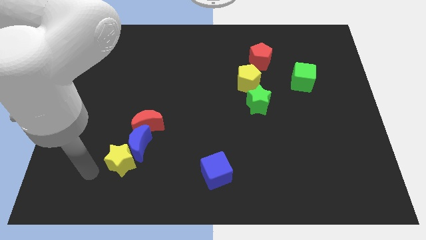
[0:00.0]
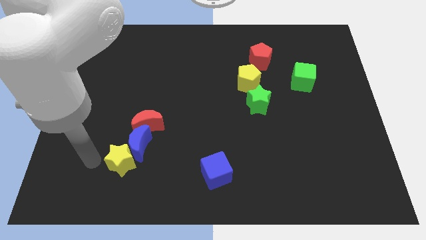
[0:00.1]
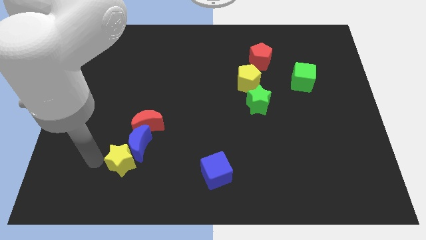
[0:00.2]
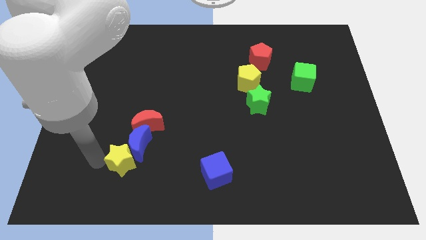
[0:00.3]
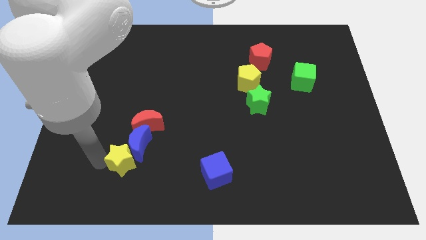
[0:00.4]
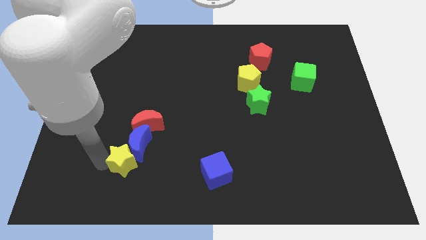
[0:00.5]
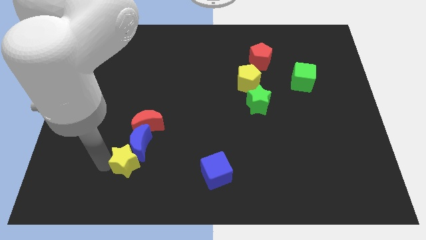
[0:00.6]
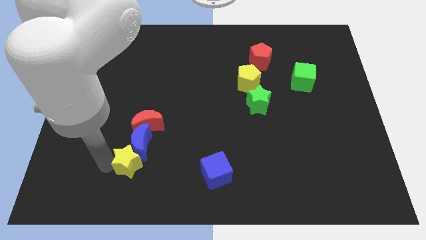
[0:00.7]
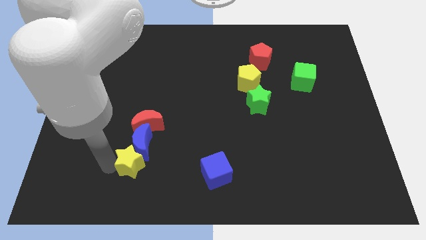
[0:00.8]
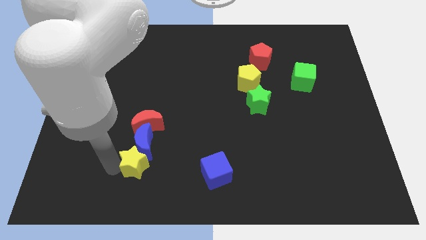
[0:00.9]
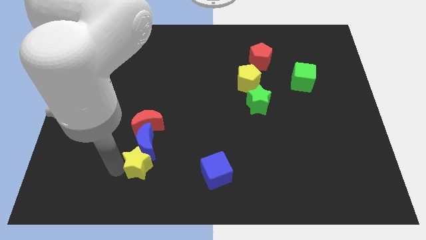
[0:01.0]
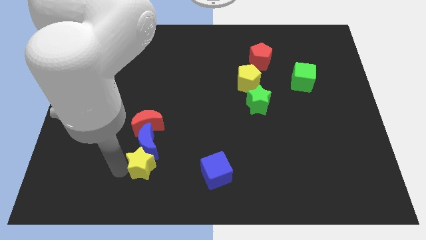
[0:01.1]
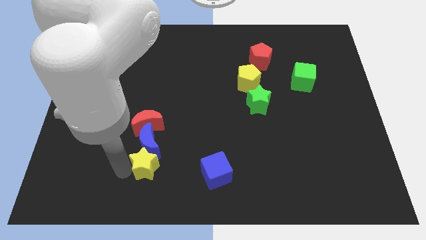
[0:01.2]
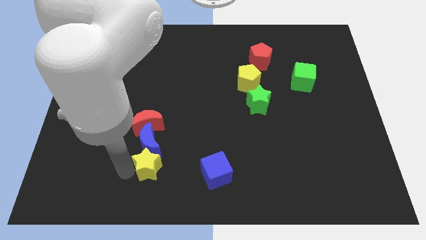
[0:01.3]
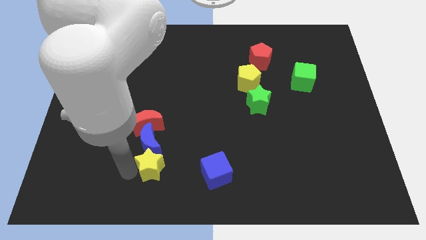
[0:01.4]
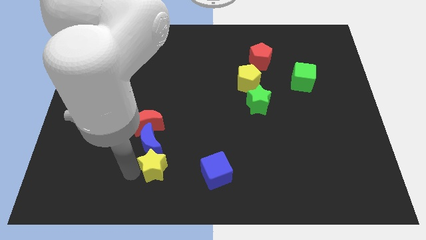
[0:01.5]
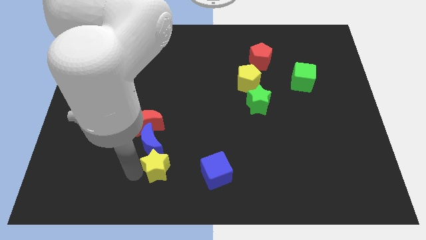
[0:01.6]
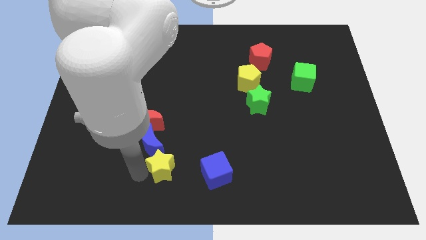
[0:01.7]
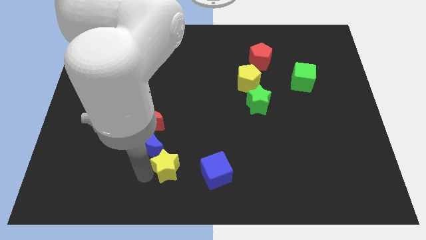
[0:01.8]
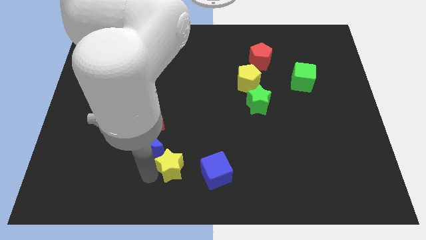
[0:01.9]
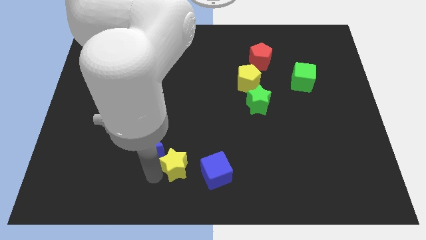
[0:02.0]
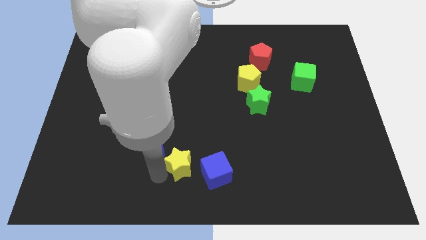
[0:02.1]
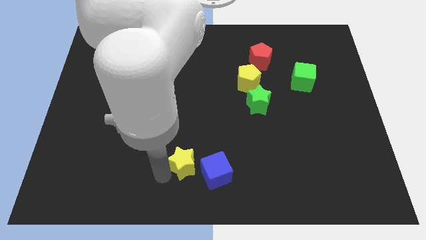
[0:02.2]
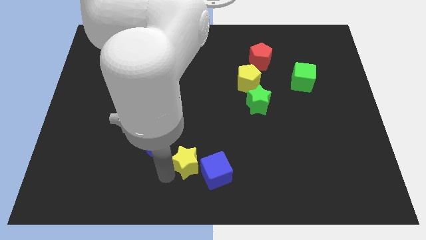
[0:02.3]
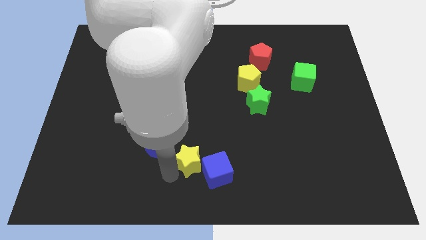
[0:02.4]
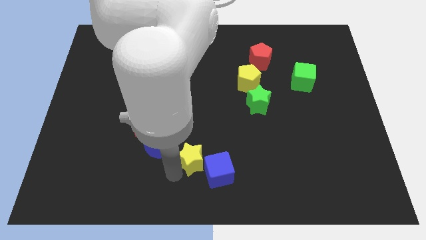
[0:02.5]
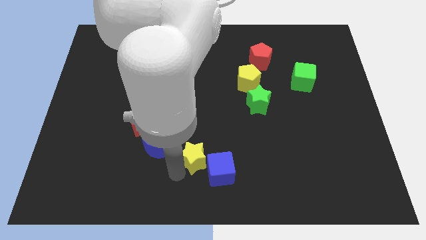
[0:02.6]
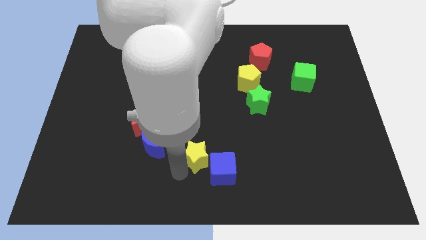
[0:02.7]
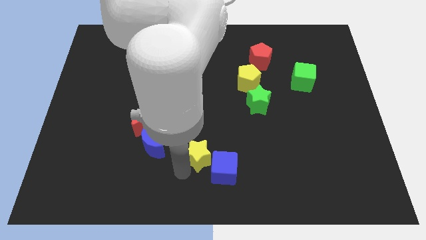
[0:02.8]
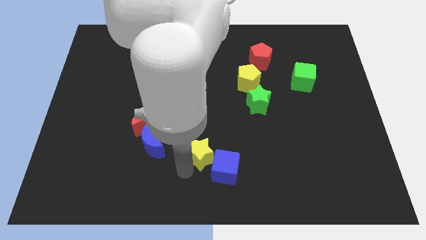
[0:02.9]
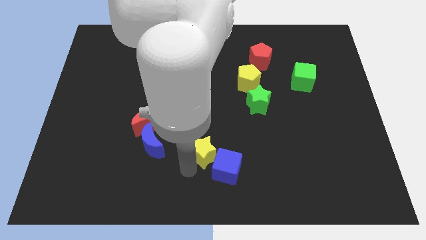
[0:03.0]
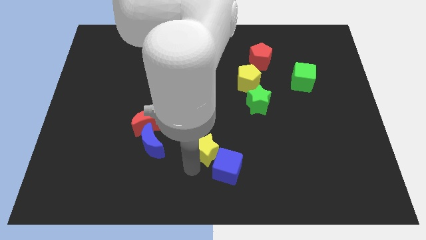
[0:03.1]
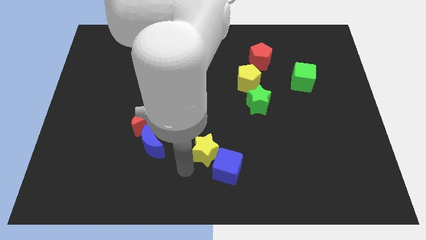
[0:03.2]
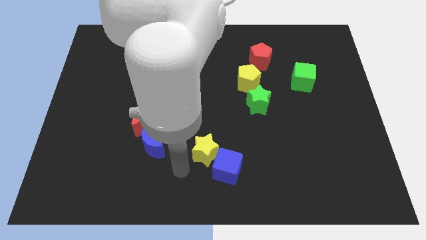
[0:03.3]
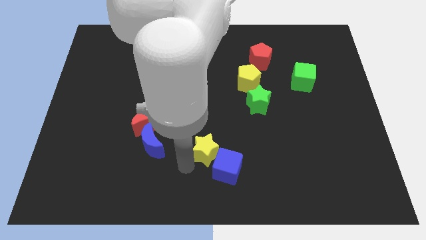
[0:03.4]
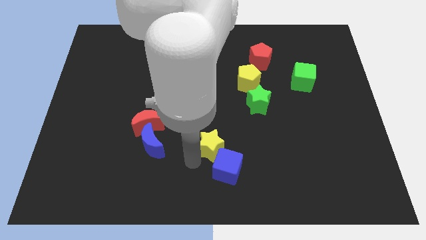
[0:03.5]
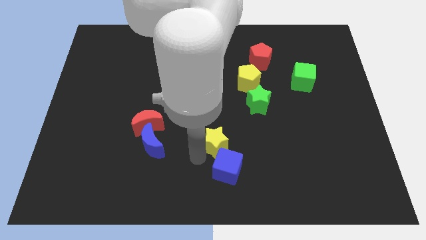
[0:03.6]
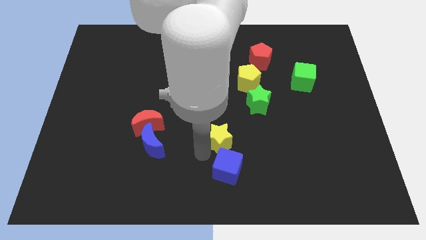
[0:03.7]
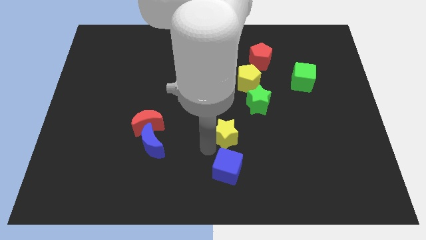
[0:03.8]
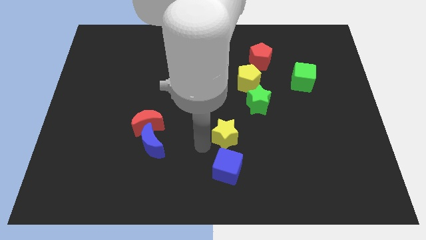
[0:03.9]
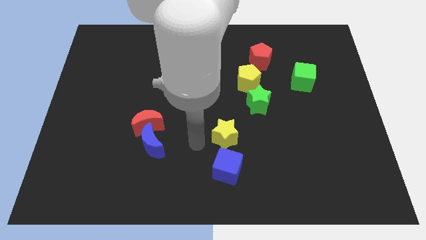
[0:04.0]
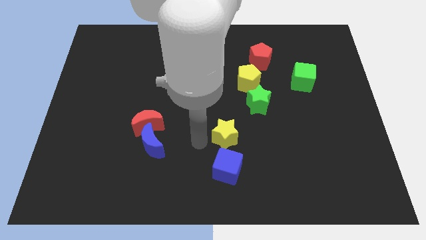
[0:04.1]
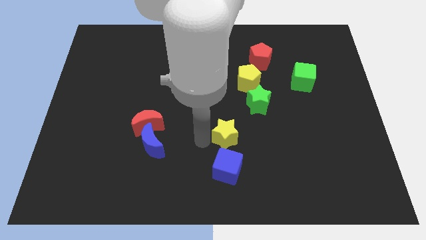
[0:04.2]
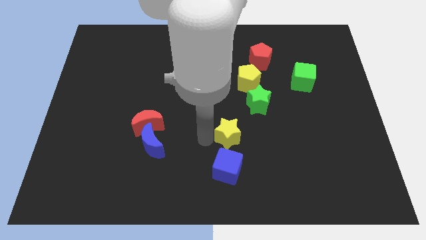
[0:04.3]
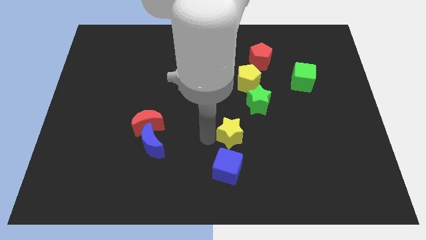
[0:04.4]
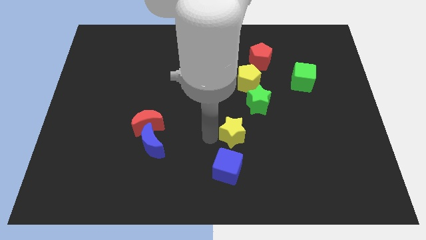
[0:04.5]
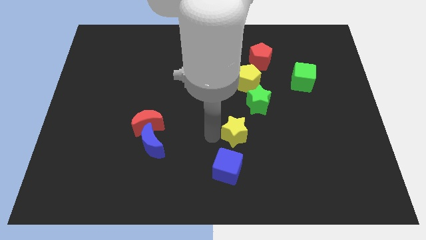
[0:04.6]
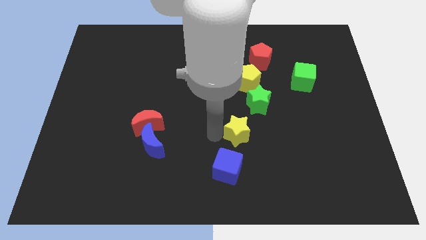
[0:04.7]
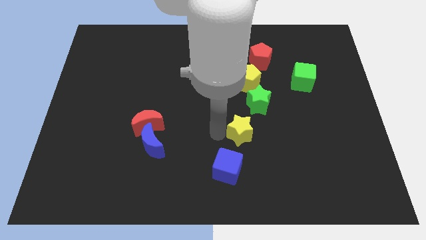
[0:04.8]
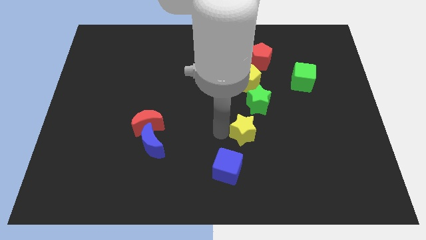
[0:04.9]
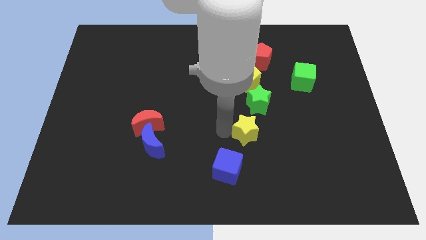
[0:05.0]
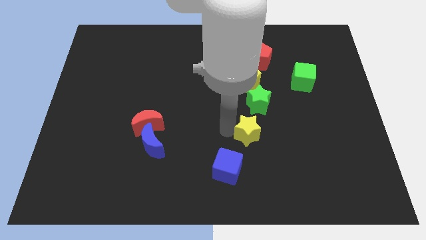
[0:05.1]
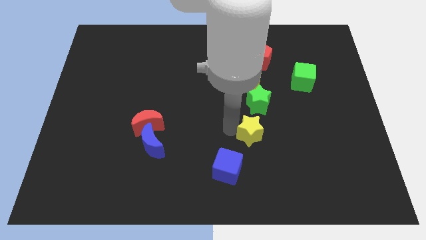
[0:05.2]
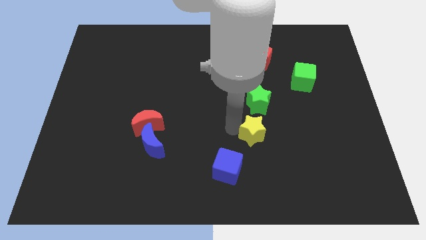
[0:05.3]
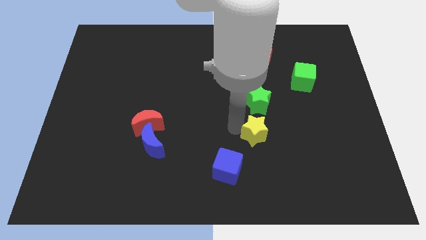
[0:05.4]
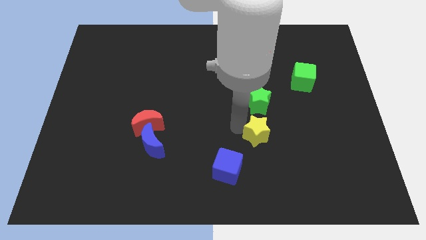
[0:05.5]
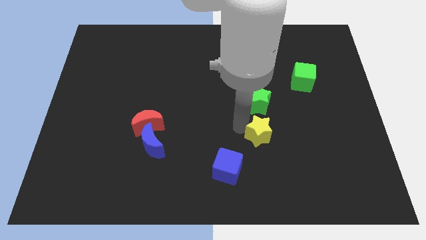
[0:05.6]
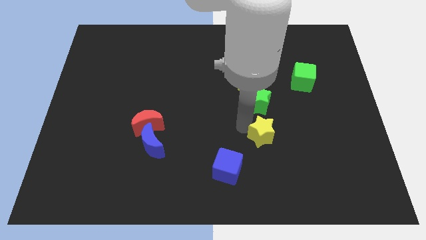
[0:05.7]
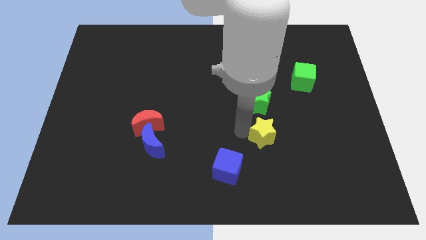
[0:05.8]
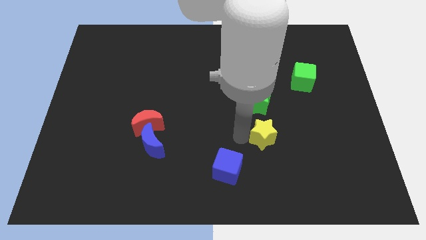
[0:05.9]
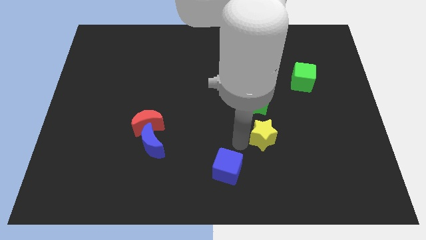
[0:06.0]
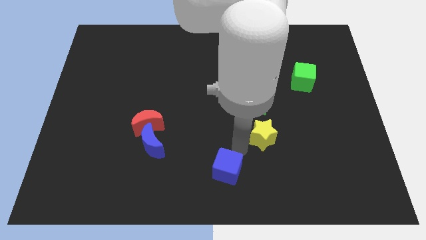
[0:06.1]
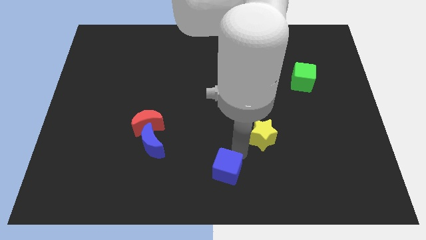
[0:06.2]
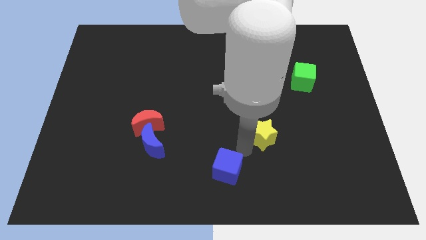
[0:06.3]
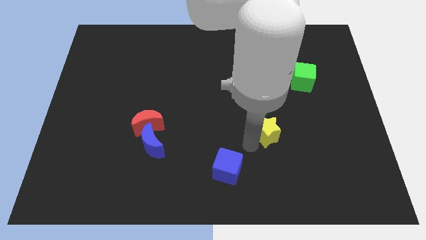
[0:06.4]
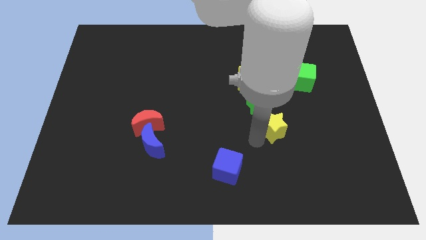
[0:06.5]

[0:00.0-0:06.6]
move the yellow star to the bottom right side of the green star
